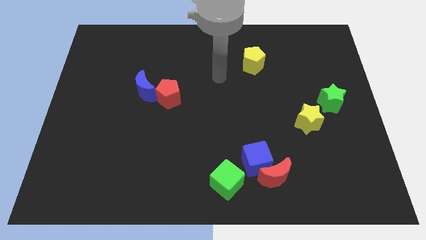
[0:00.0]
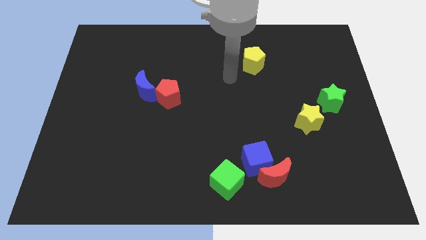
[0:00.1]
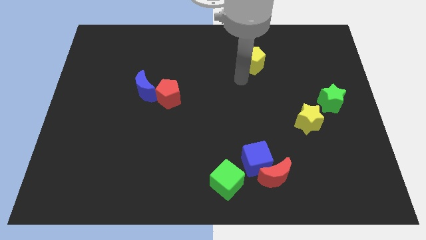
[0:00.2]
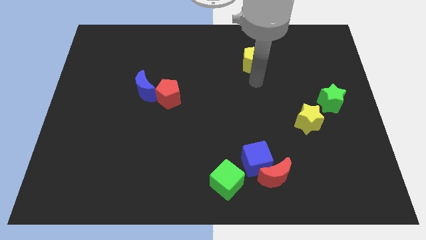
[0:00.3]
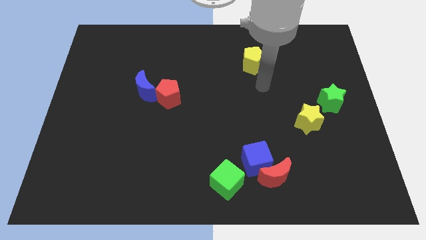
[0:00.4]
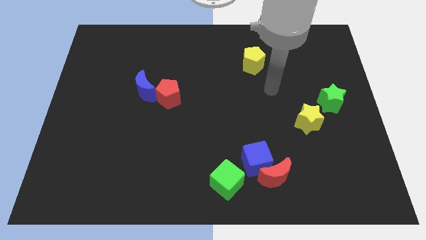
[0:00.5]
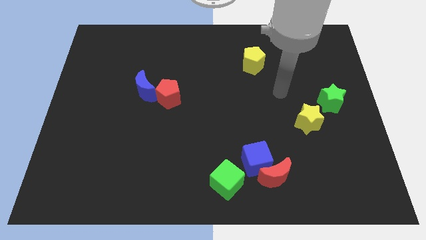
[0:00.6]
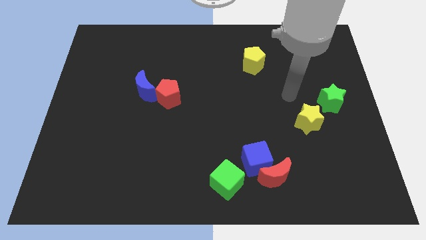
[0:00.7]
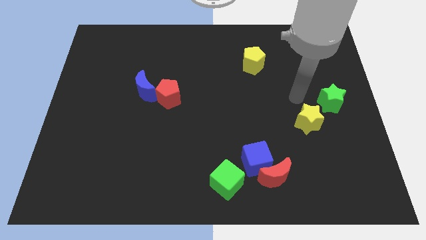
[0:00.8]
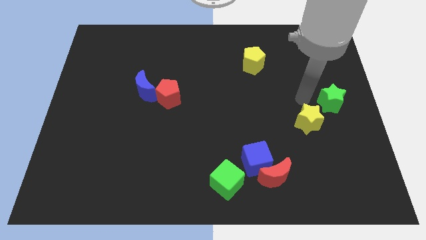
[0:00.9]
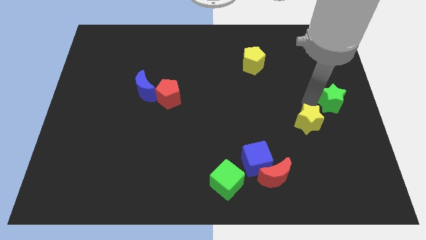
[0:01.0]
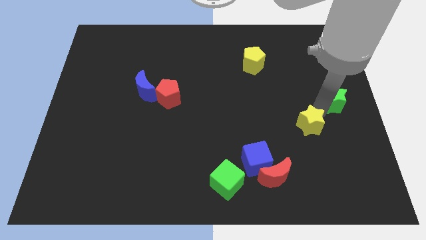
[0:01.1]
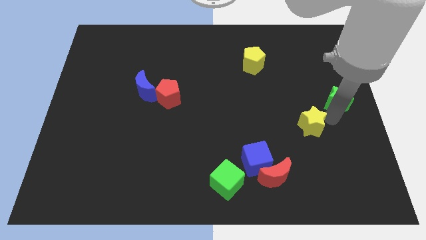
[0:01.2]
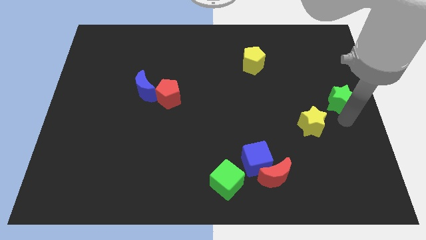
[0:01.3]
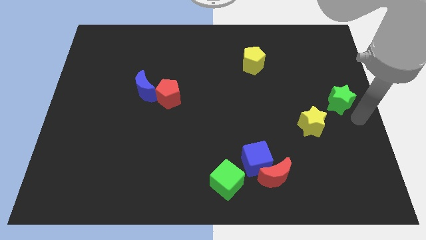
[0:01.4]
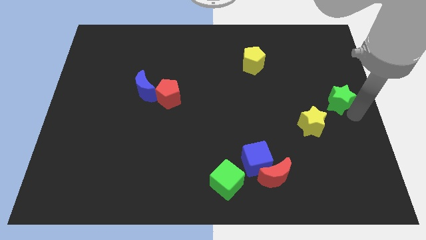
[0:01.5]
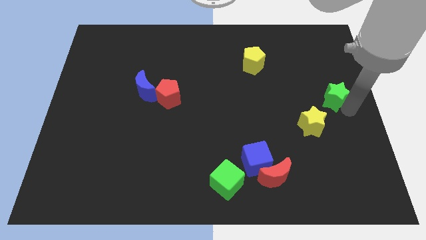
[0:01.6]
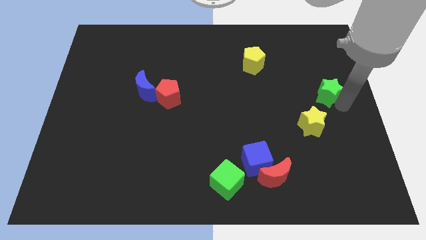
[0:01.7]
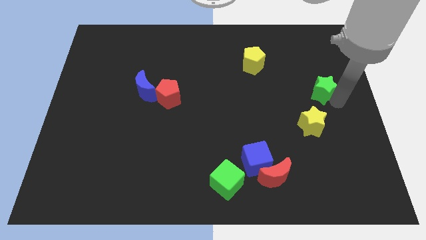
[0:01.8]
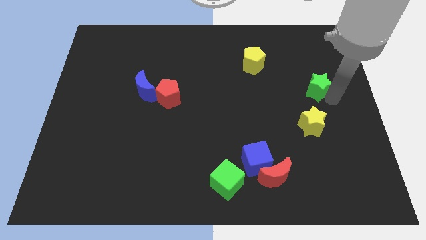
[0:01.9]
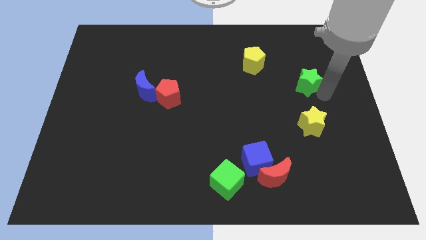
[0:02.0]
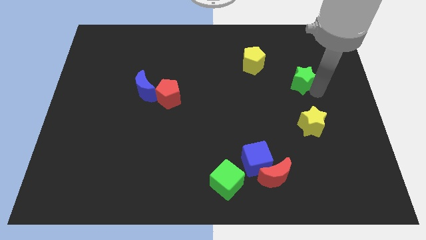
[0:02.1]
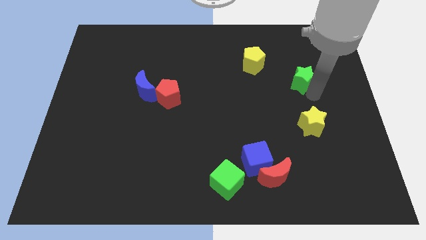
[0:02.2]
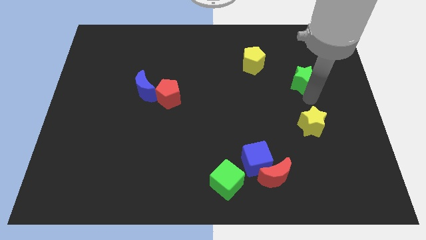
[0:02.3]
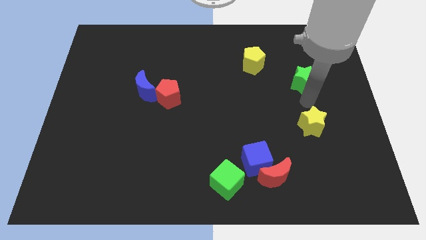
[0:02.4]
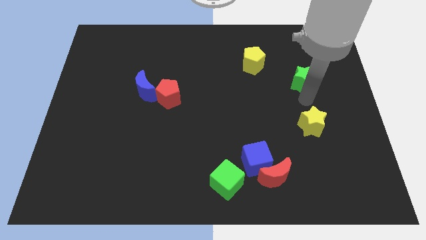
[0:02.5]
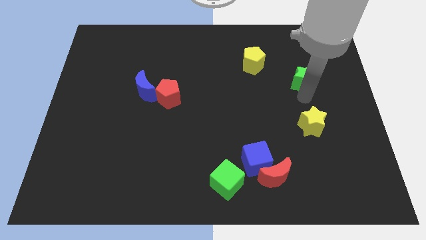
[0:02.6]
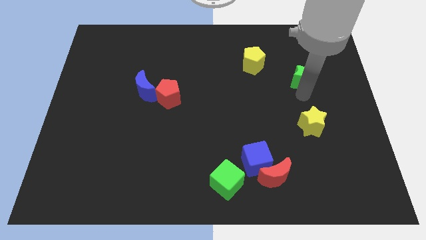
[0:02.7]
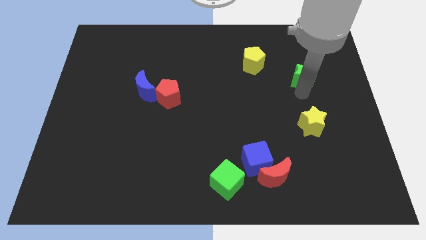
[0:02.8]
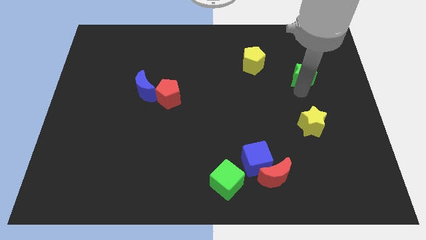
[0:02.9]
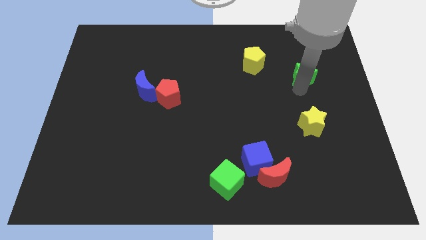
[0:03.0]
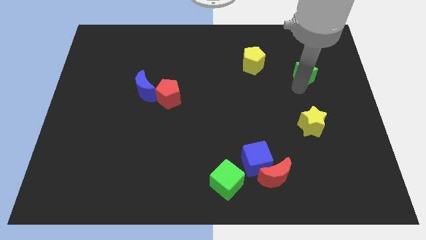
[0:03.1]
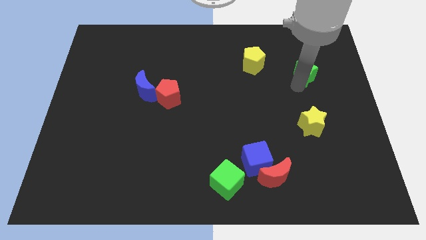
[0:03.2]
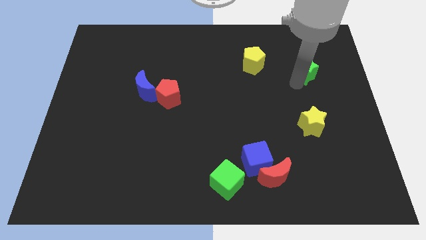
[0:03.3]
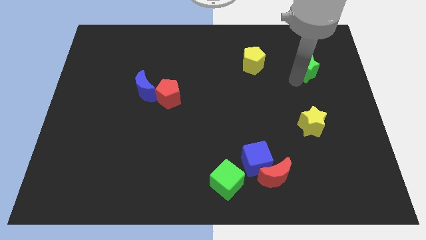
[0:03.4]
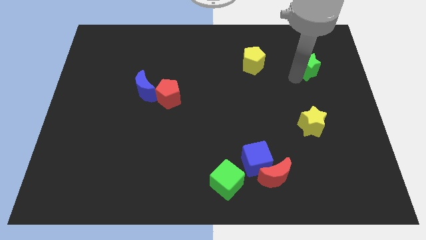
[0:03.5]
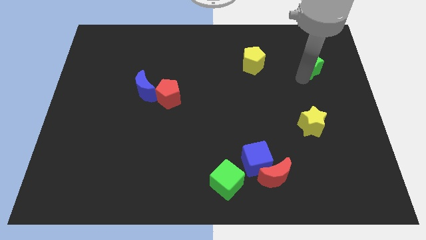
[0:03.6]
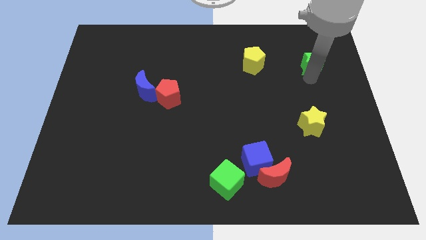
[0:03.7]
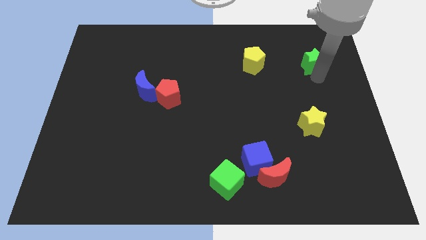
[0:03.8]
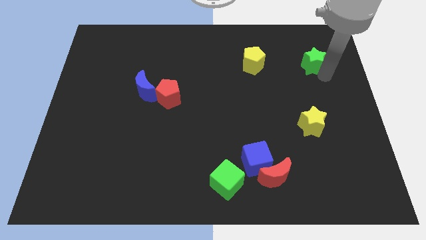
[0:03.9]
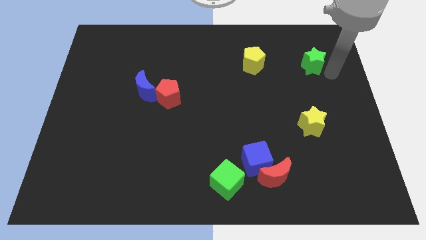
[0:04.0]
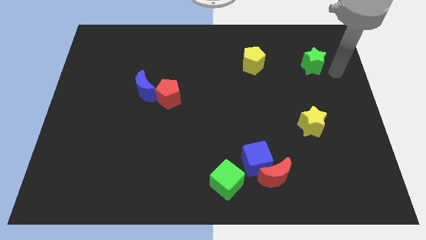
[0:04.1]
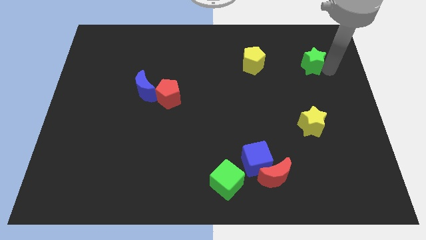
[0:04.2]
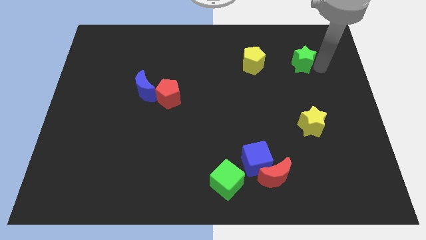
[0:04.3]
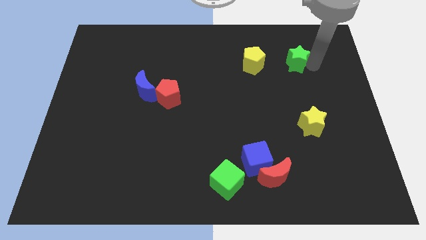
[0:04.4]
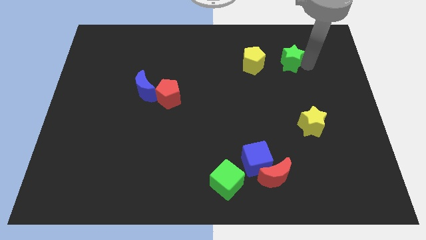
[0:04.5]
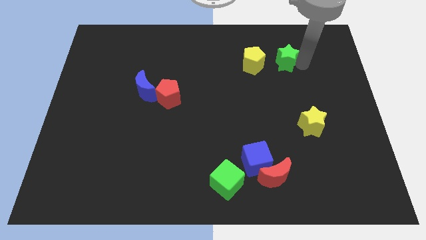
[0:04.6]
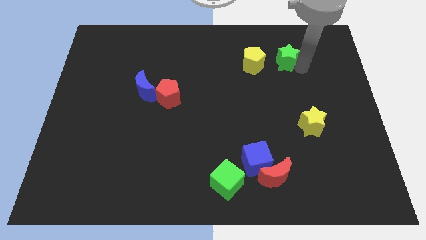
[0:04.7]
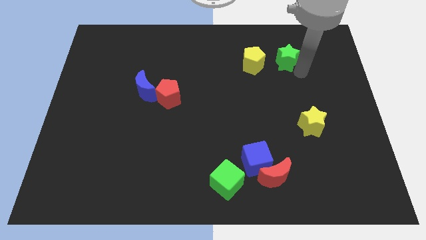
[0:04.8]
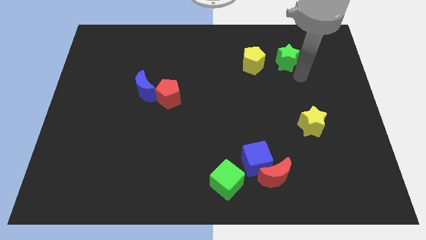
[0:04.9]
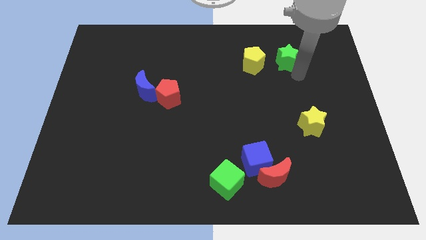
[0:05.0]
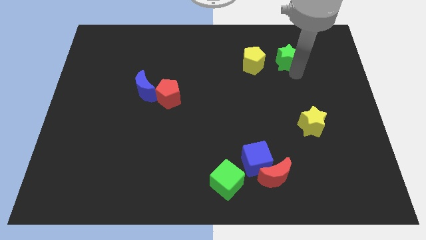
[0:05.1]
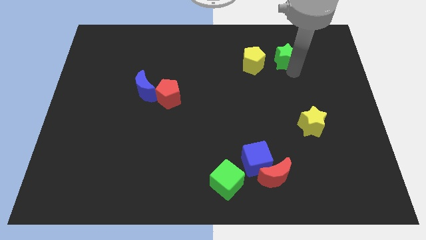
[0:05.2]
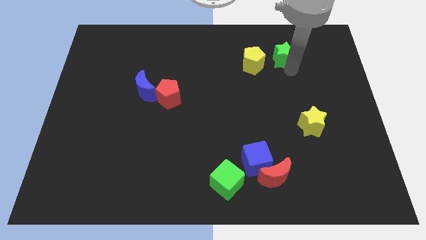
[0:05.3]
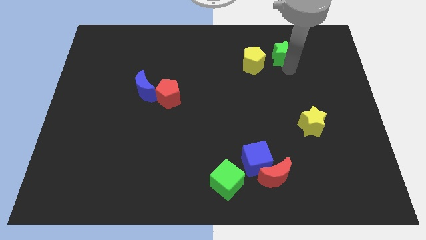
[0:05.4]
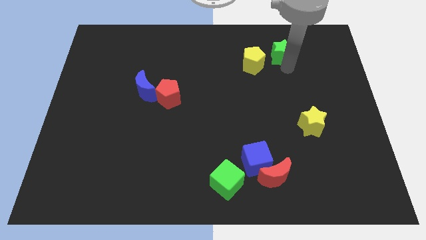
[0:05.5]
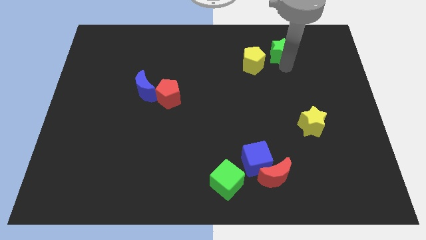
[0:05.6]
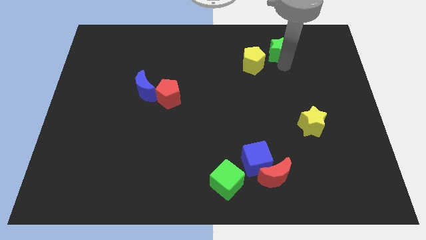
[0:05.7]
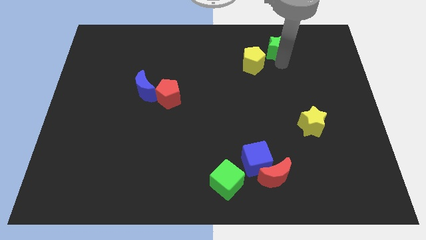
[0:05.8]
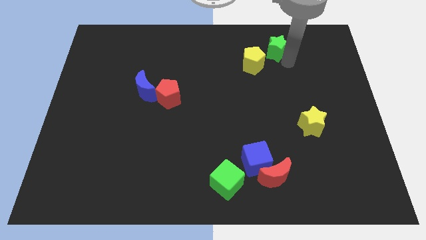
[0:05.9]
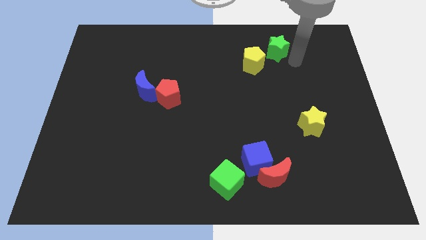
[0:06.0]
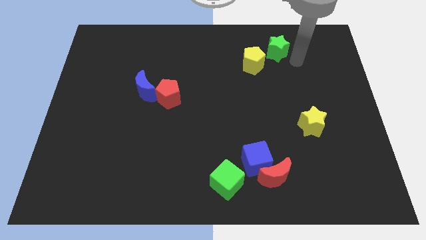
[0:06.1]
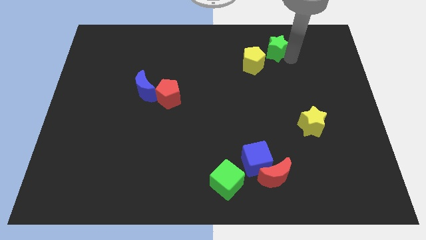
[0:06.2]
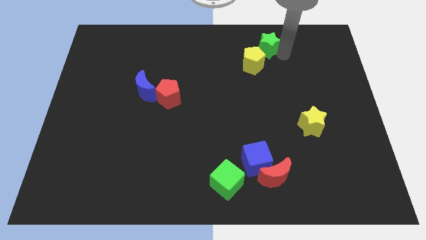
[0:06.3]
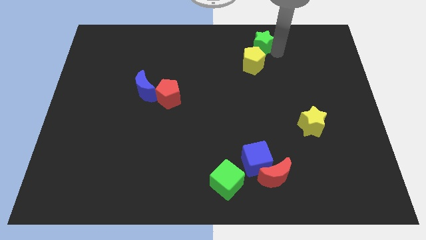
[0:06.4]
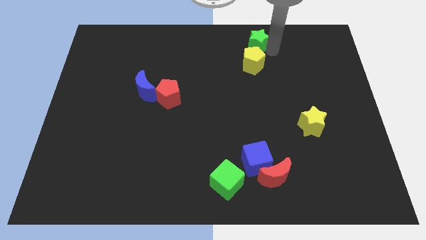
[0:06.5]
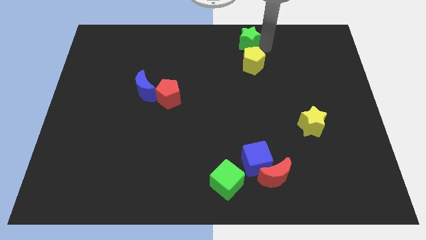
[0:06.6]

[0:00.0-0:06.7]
put the green star to the towards your base
